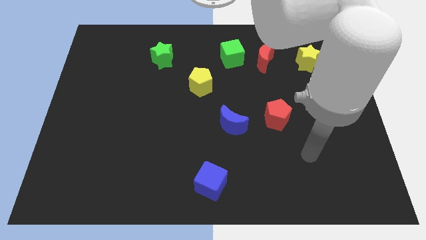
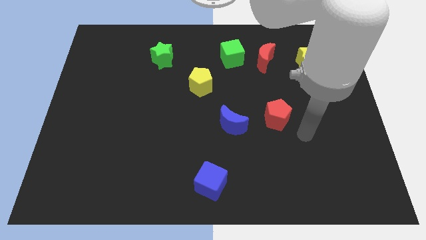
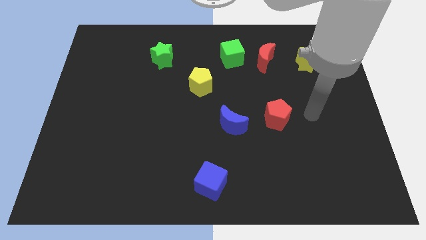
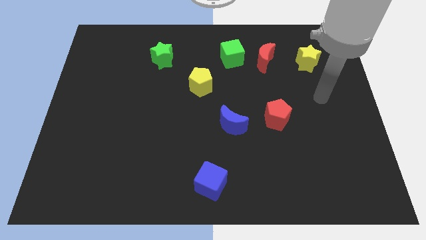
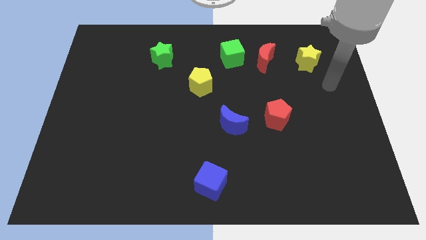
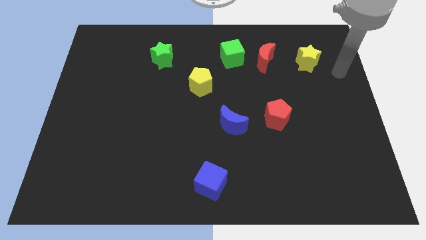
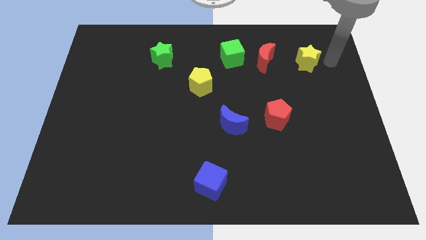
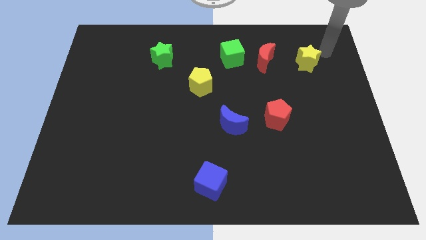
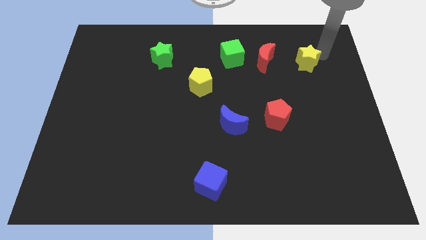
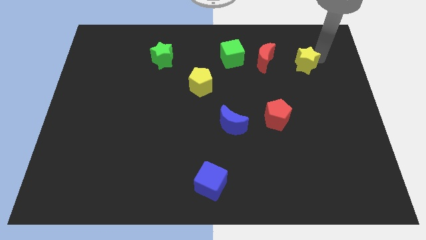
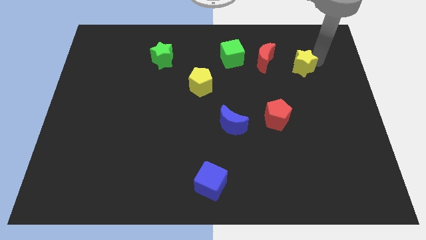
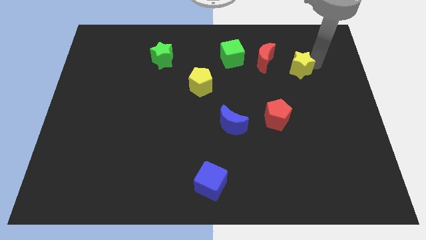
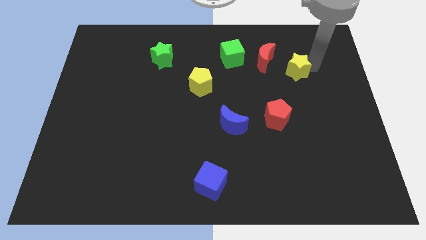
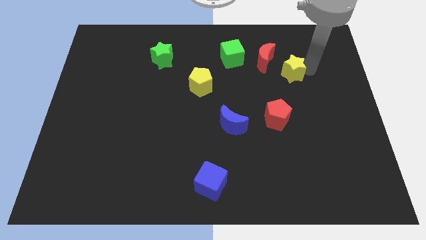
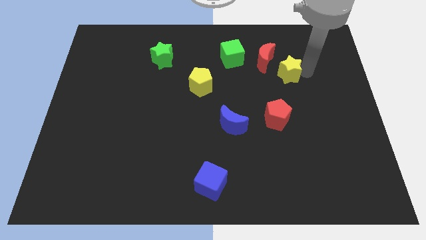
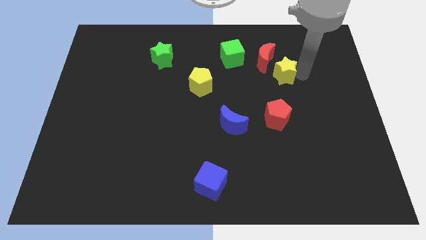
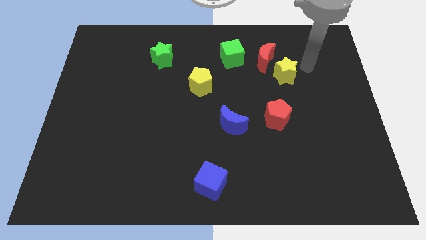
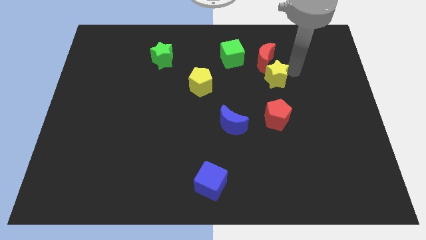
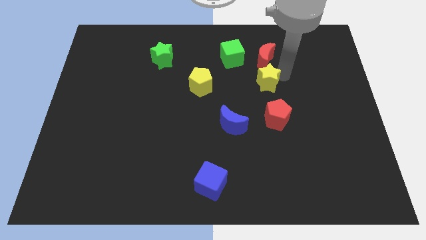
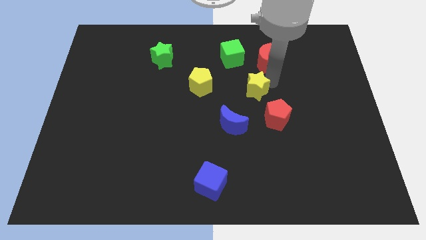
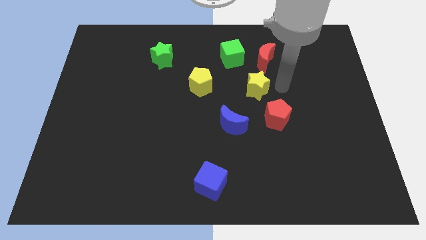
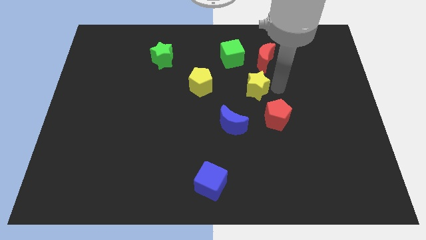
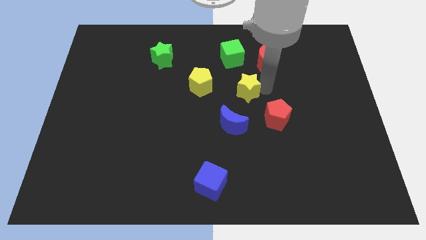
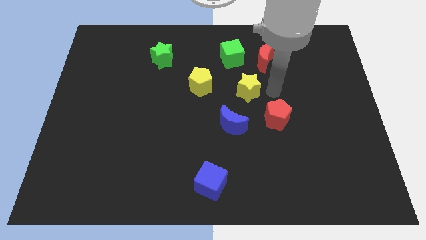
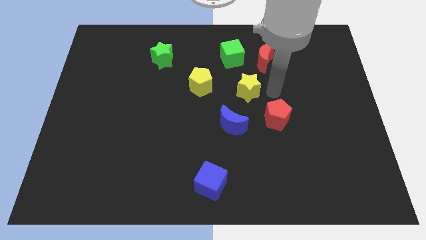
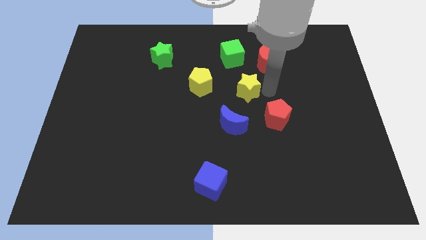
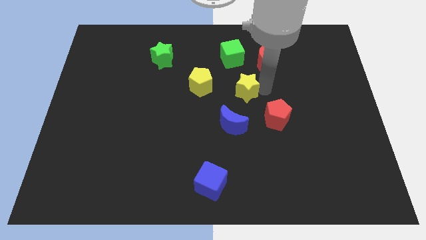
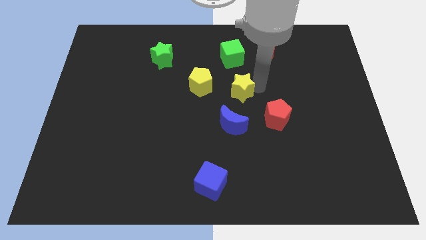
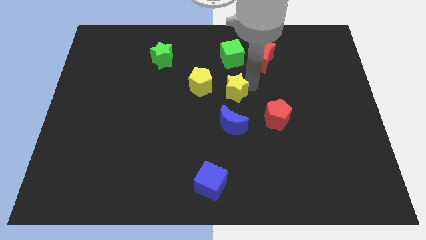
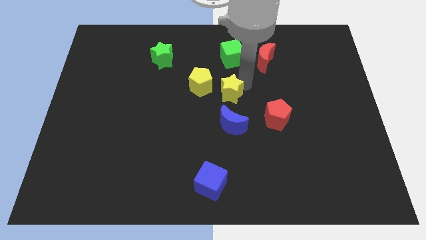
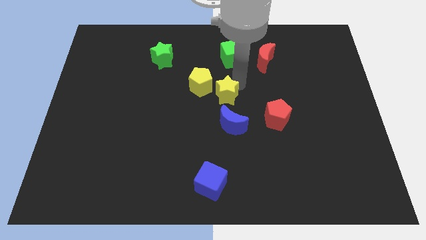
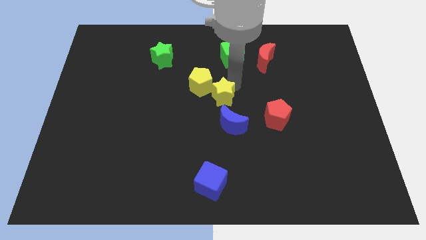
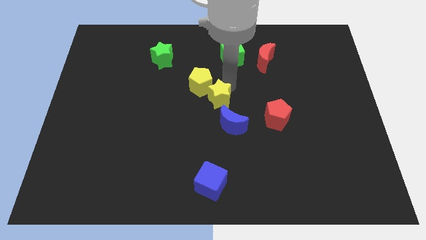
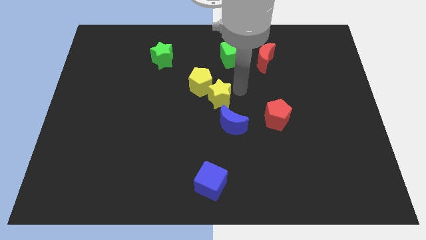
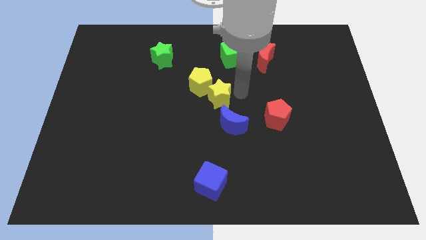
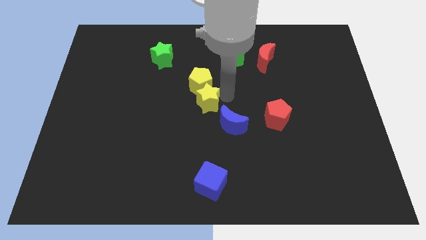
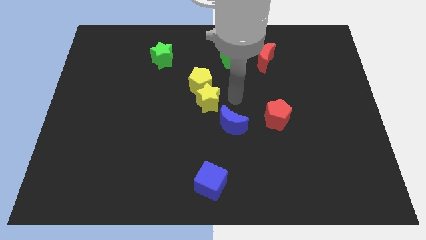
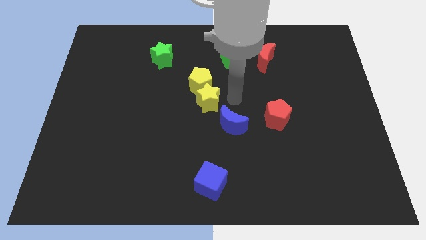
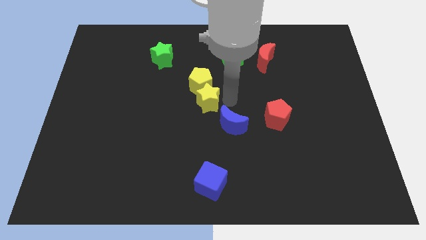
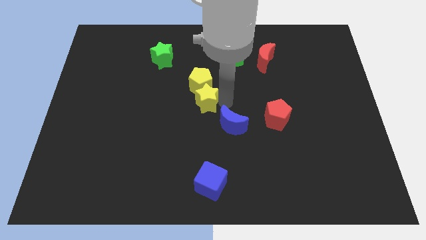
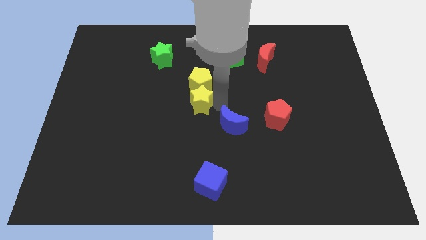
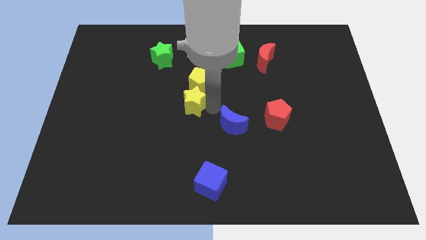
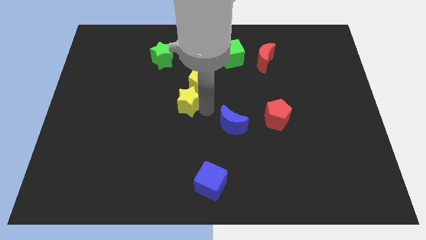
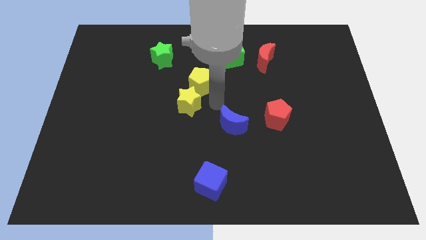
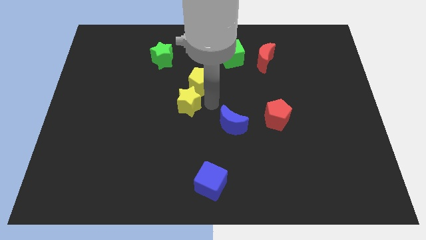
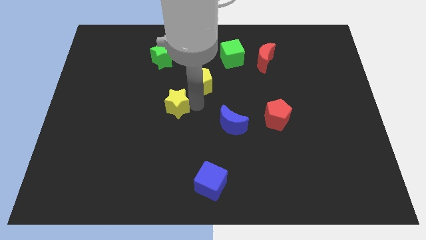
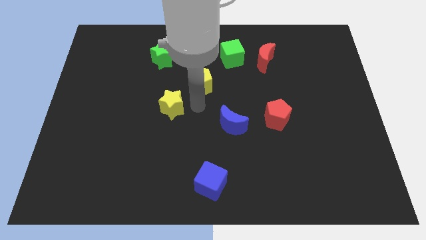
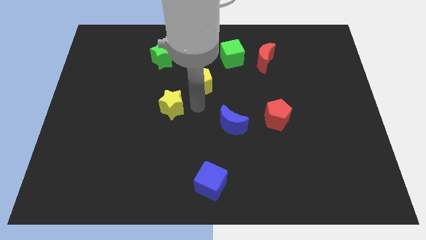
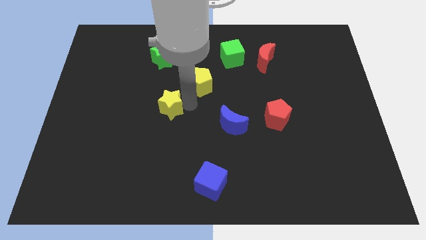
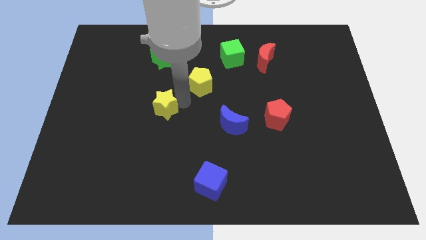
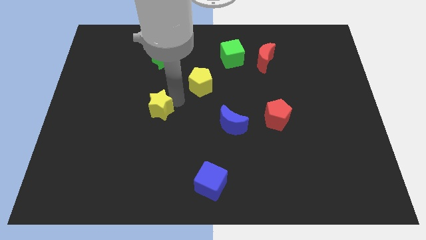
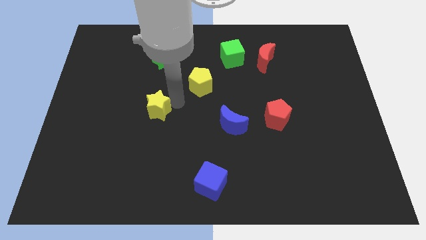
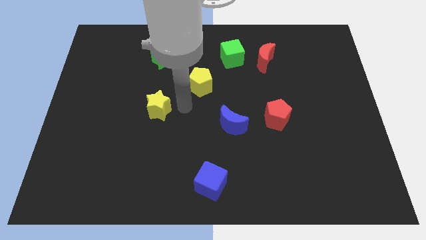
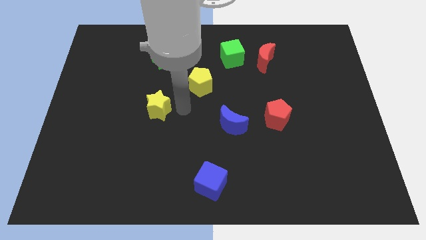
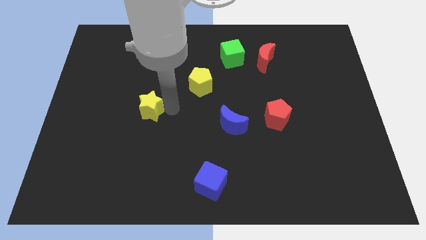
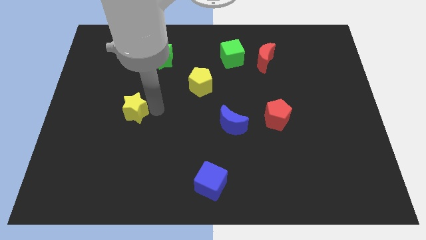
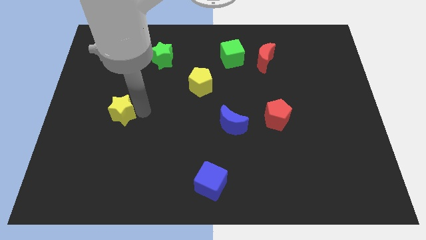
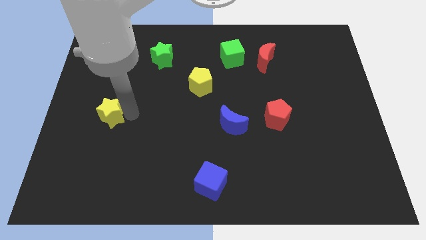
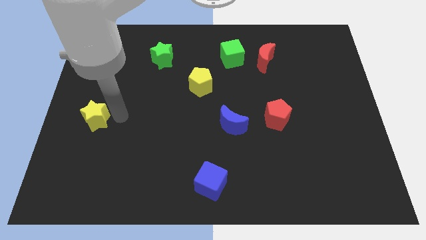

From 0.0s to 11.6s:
move the yellow star to the left side of the board
